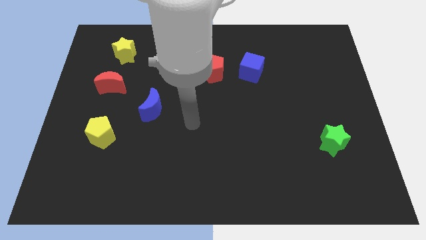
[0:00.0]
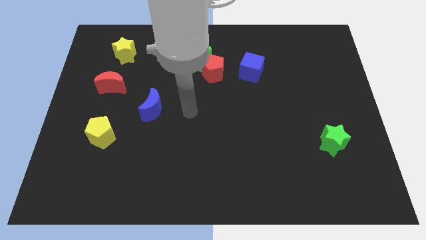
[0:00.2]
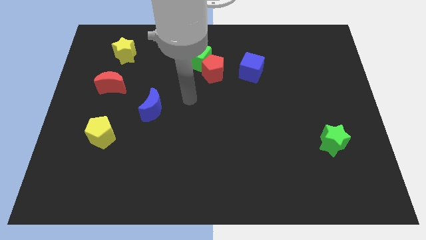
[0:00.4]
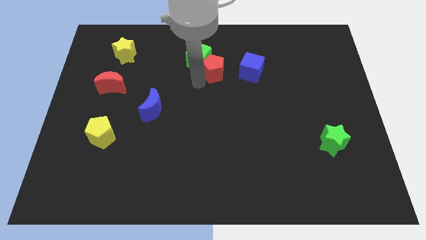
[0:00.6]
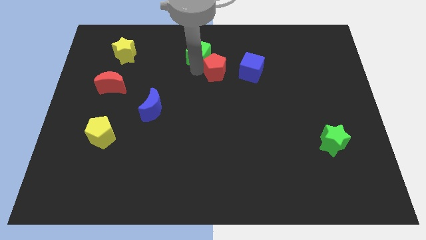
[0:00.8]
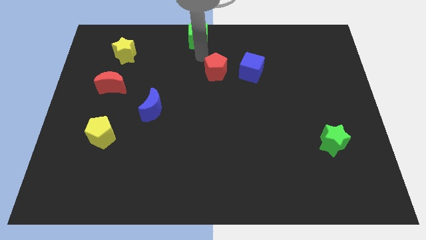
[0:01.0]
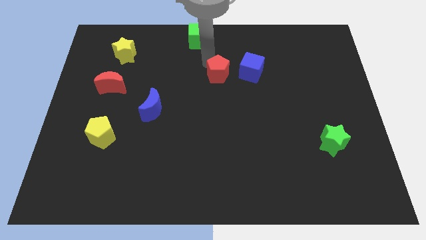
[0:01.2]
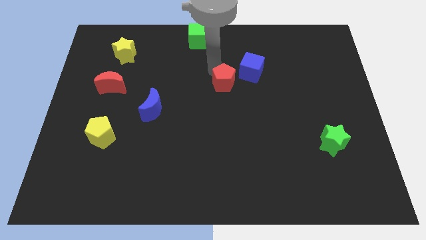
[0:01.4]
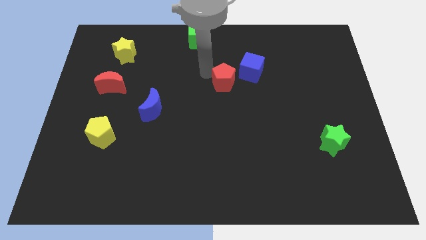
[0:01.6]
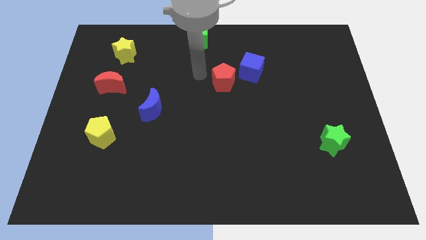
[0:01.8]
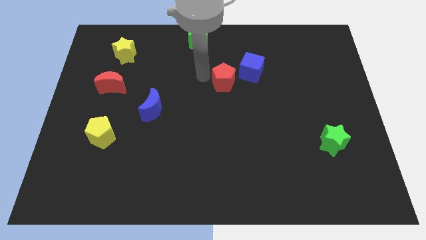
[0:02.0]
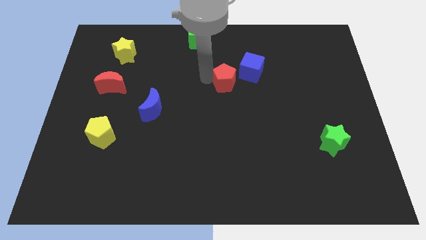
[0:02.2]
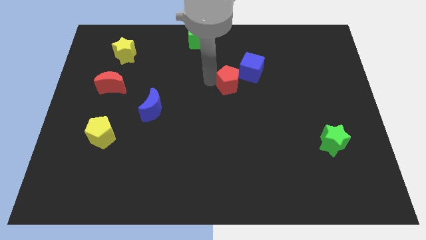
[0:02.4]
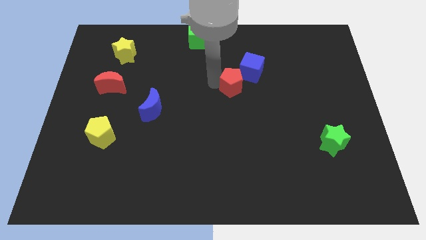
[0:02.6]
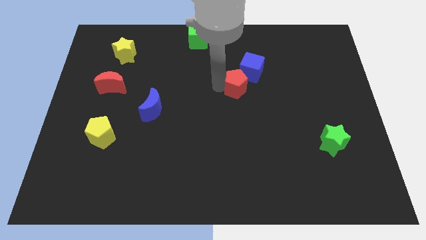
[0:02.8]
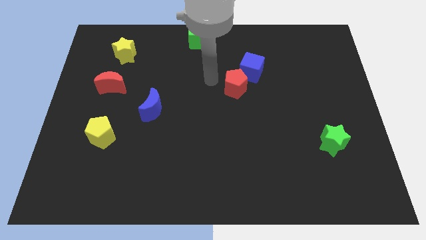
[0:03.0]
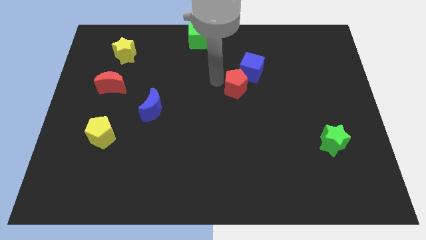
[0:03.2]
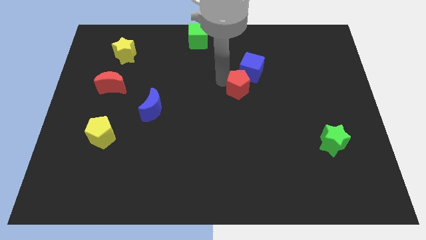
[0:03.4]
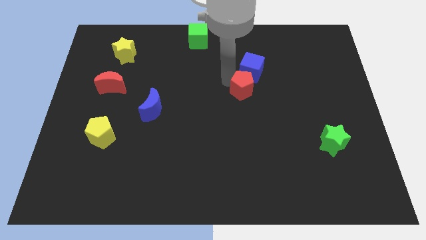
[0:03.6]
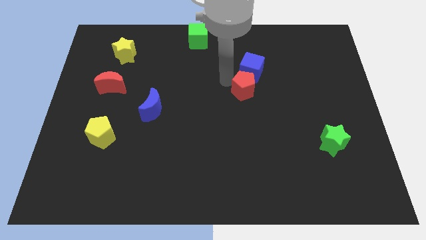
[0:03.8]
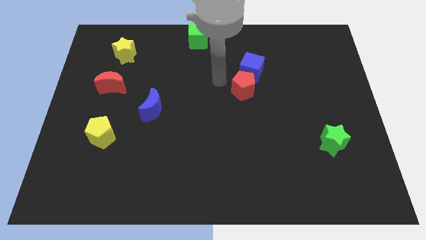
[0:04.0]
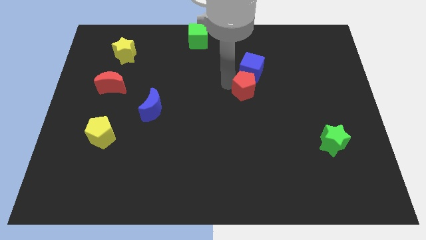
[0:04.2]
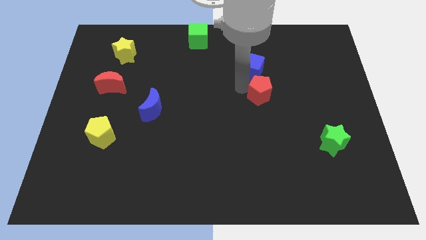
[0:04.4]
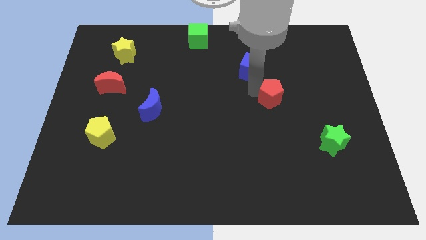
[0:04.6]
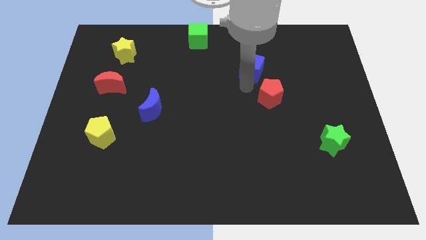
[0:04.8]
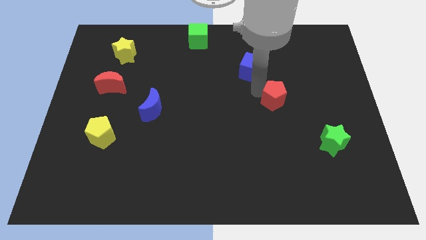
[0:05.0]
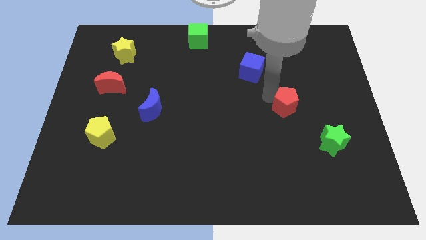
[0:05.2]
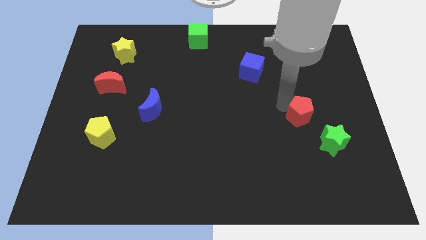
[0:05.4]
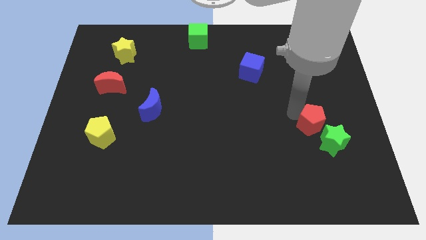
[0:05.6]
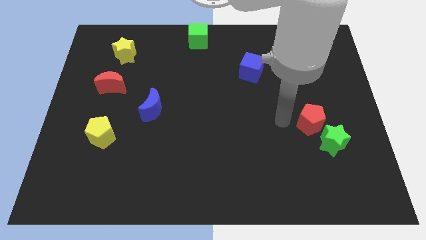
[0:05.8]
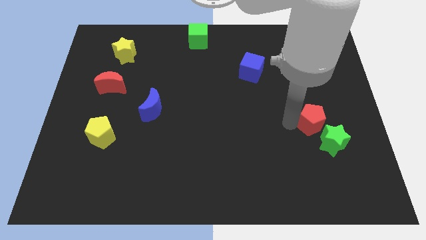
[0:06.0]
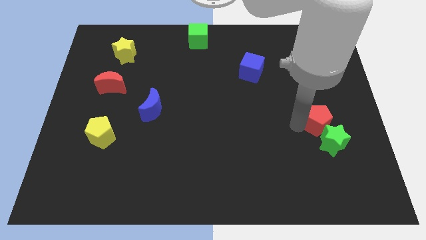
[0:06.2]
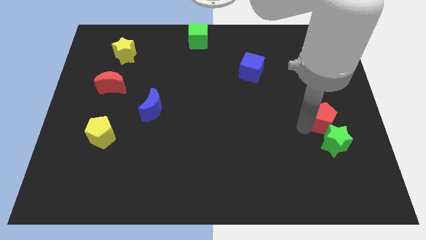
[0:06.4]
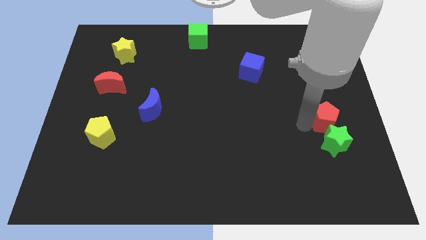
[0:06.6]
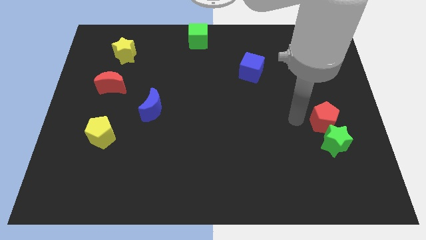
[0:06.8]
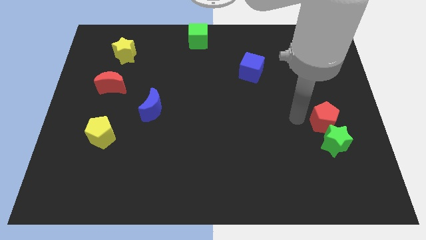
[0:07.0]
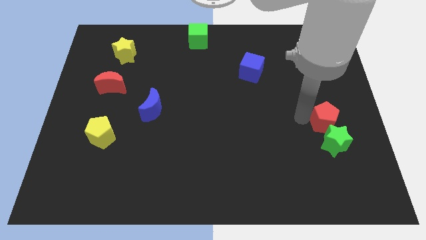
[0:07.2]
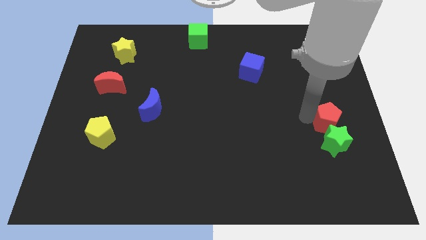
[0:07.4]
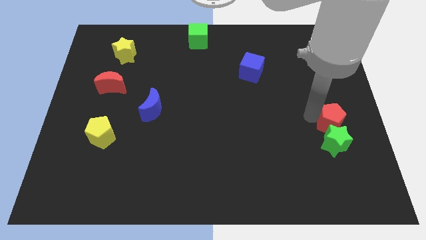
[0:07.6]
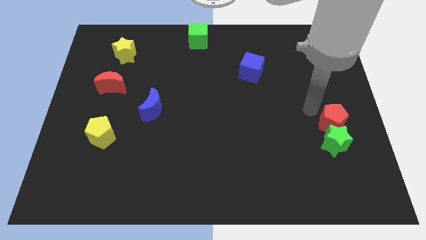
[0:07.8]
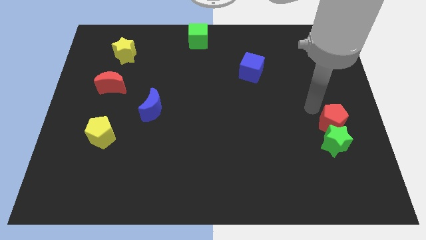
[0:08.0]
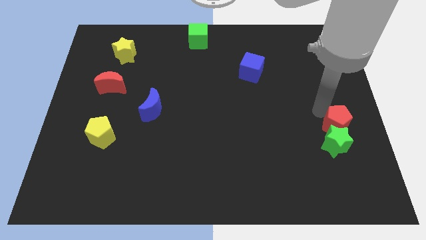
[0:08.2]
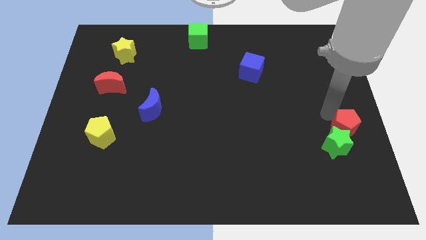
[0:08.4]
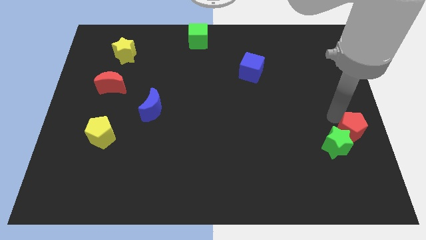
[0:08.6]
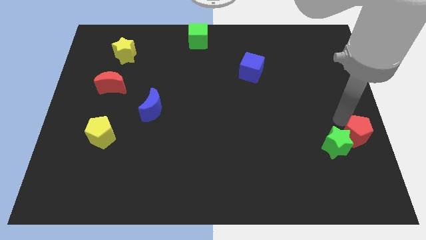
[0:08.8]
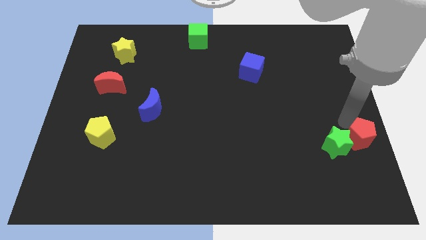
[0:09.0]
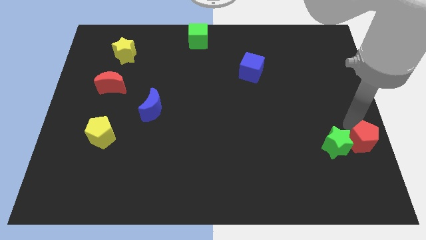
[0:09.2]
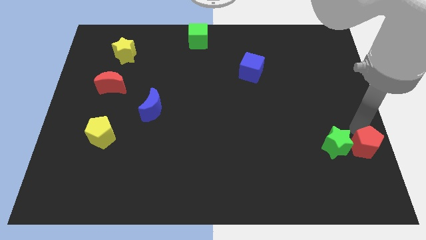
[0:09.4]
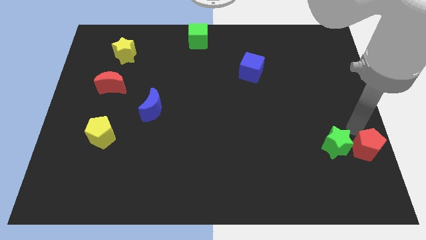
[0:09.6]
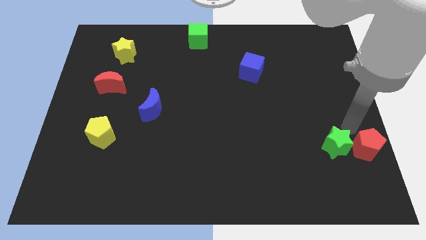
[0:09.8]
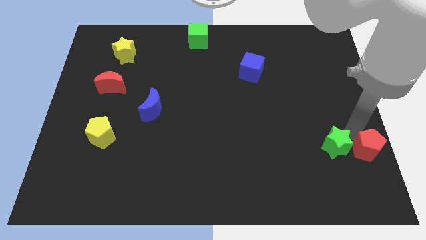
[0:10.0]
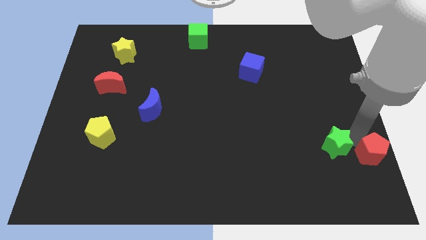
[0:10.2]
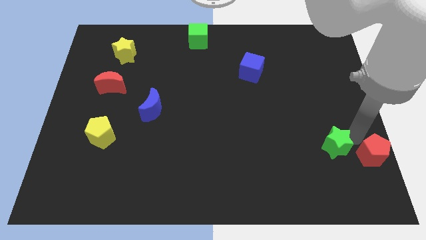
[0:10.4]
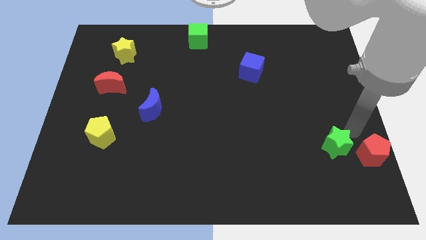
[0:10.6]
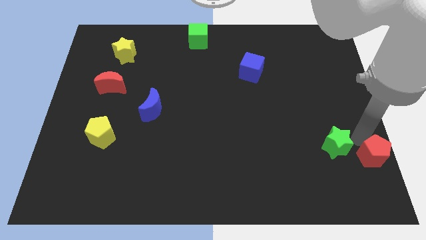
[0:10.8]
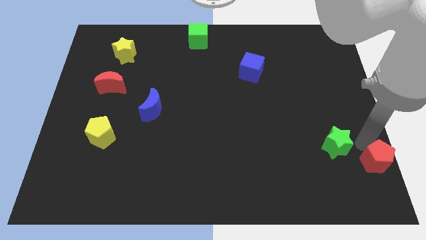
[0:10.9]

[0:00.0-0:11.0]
slide the red pentagon to the bottom right

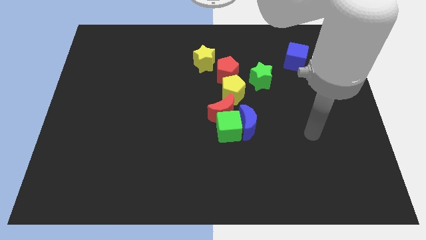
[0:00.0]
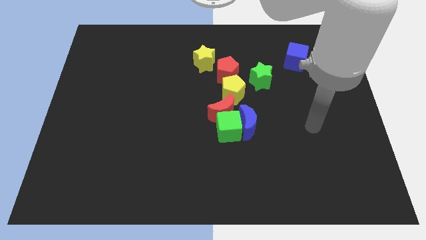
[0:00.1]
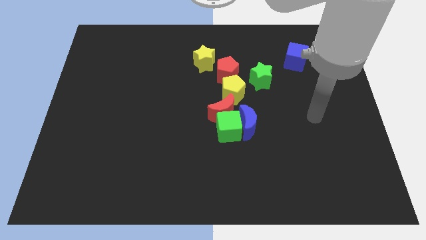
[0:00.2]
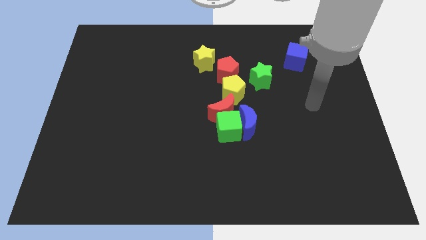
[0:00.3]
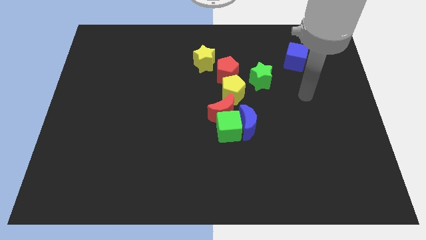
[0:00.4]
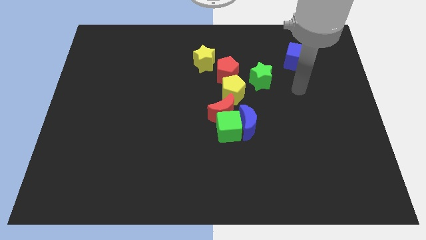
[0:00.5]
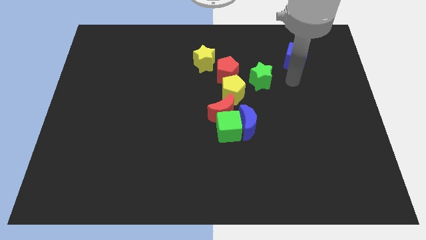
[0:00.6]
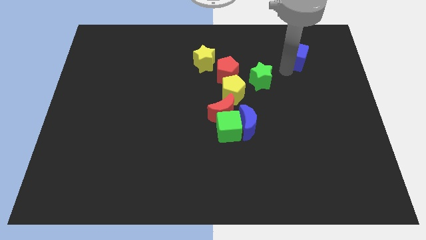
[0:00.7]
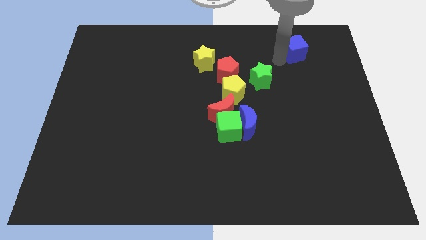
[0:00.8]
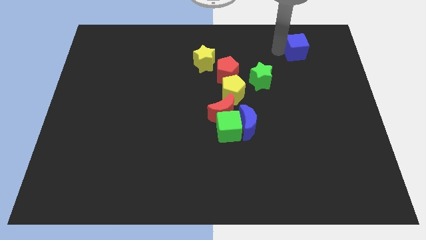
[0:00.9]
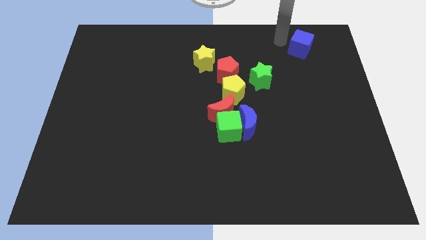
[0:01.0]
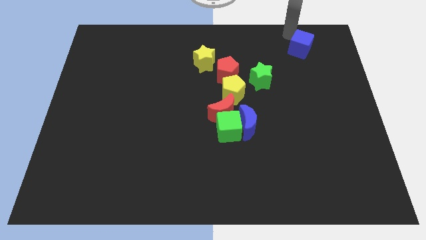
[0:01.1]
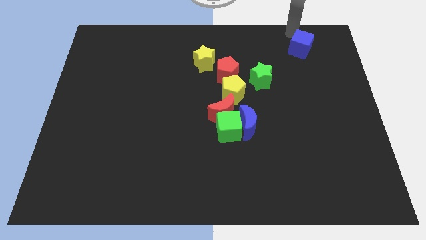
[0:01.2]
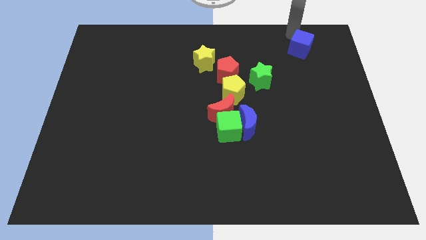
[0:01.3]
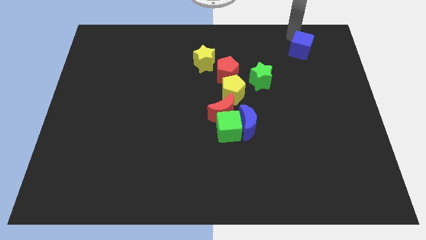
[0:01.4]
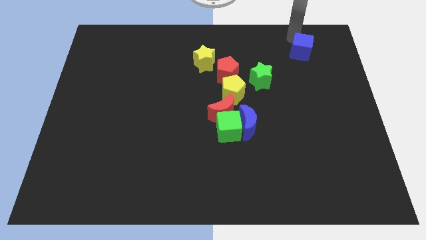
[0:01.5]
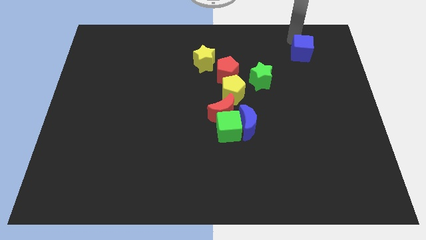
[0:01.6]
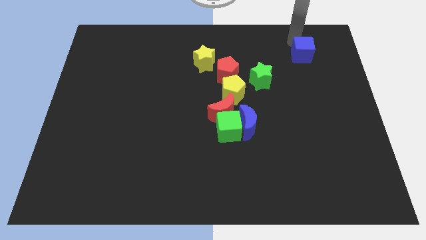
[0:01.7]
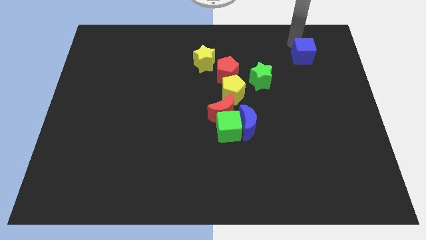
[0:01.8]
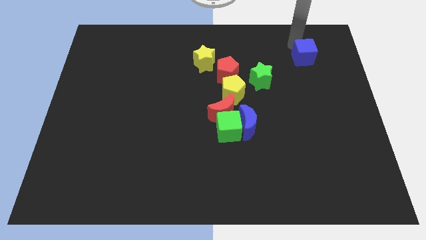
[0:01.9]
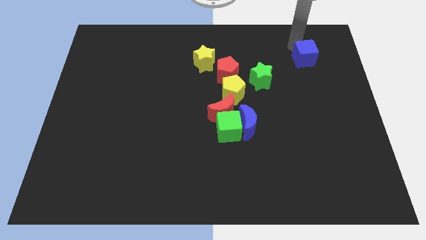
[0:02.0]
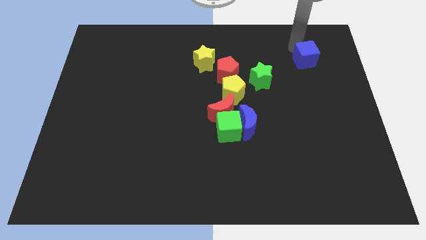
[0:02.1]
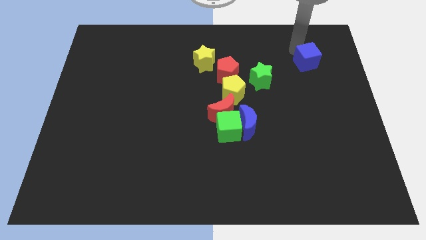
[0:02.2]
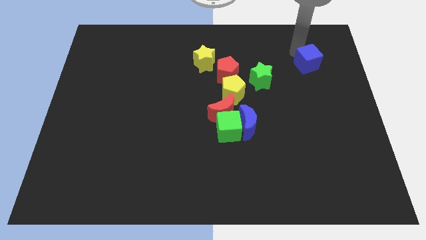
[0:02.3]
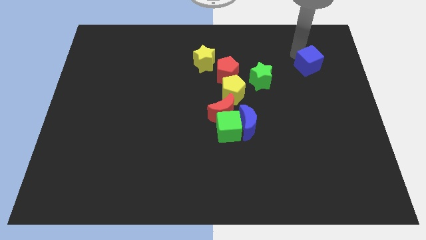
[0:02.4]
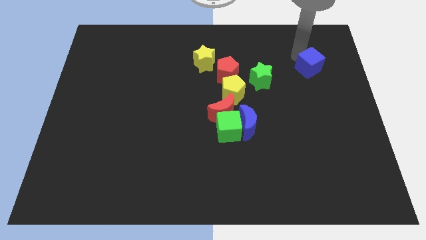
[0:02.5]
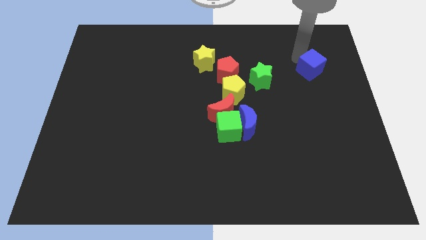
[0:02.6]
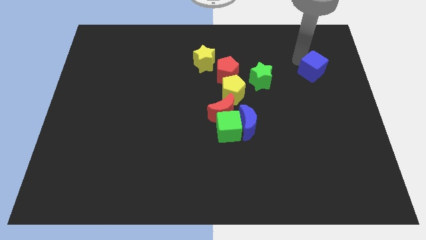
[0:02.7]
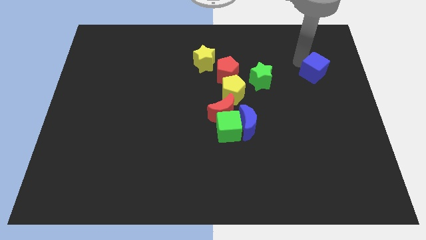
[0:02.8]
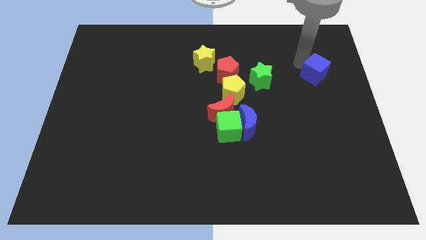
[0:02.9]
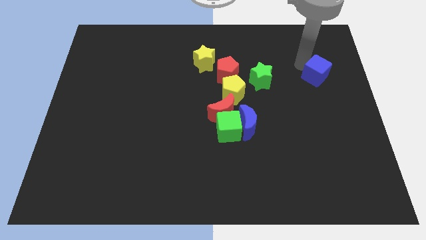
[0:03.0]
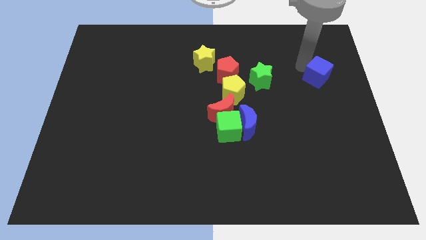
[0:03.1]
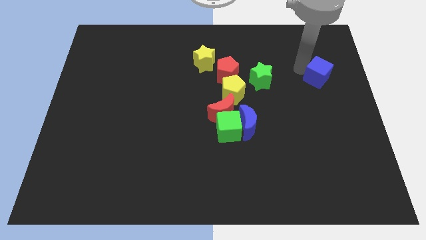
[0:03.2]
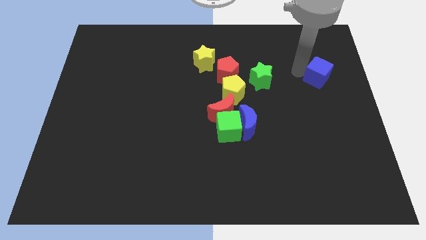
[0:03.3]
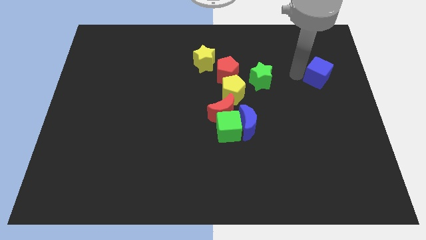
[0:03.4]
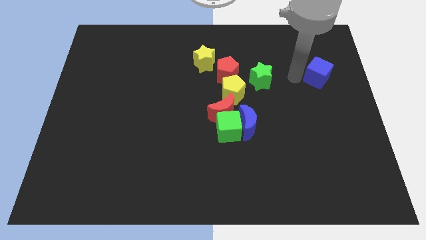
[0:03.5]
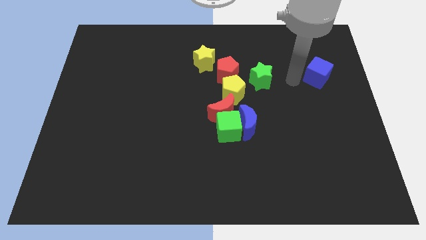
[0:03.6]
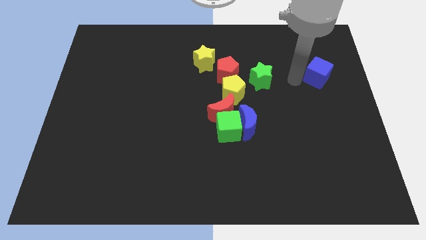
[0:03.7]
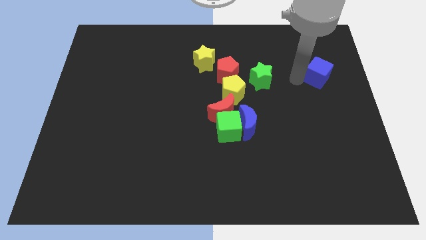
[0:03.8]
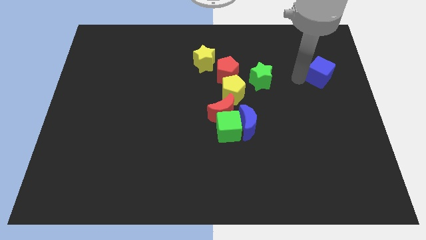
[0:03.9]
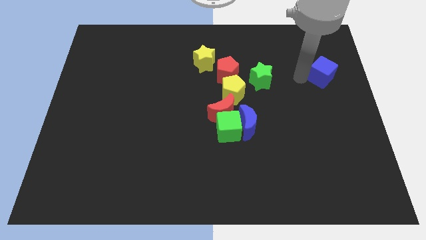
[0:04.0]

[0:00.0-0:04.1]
slide the blue cube to the right side
